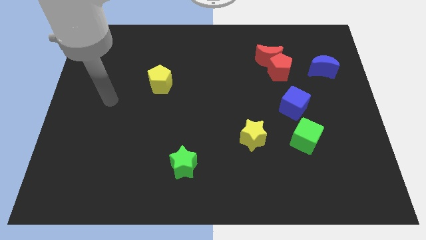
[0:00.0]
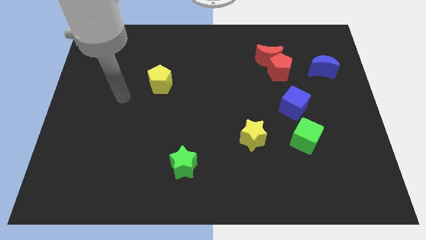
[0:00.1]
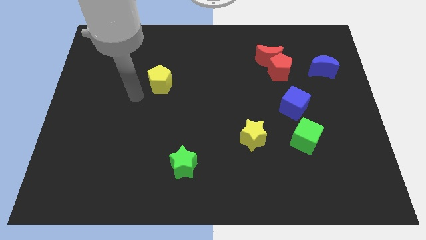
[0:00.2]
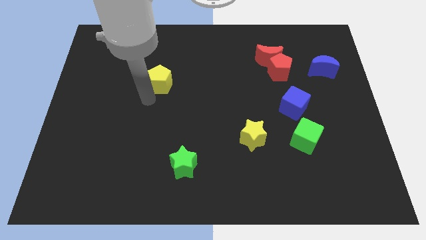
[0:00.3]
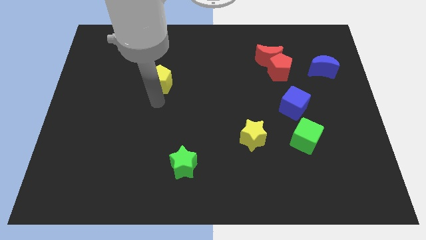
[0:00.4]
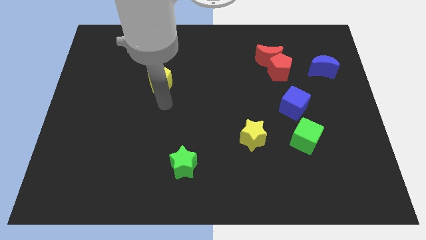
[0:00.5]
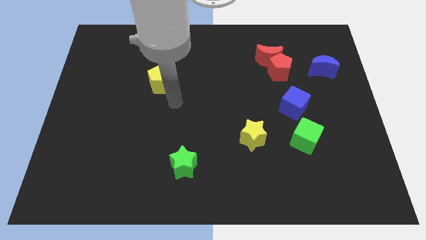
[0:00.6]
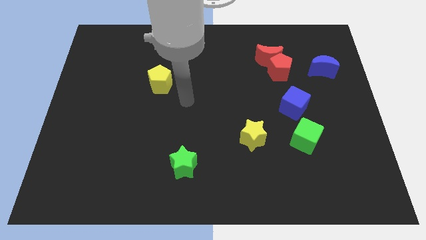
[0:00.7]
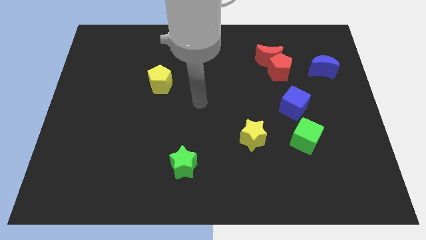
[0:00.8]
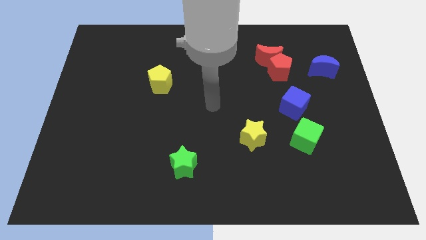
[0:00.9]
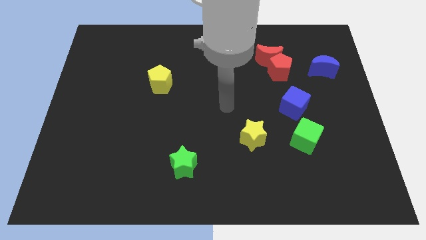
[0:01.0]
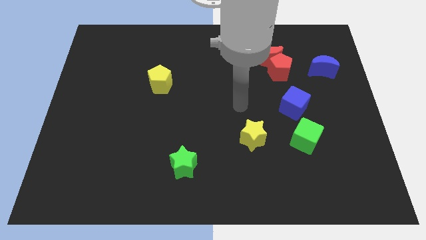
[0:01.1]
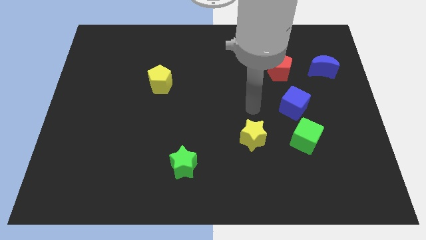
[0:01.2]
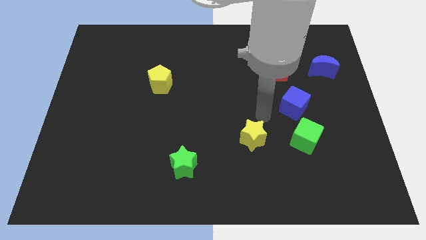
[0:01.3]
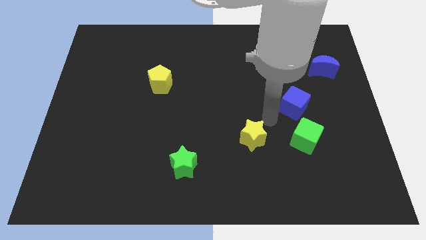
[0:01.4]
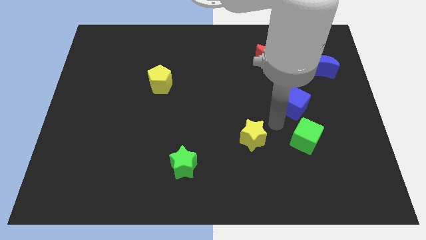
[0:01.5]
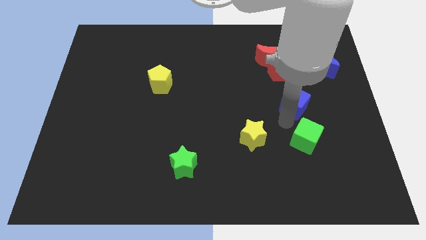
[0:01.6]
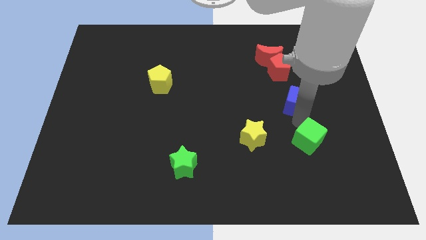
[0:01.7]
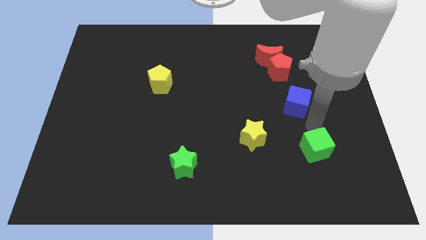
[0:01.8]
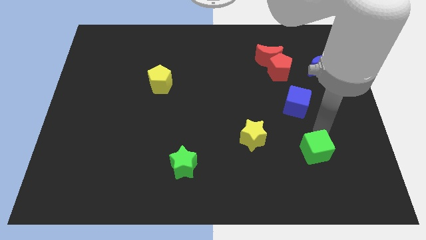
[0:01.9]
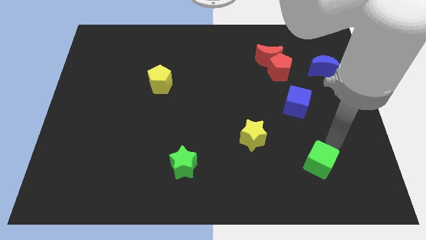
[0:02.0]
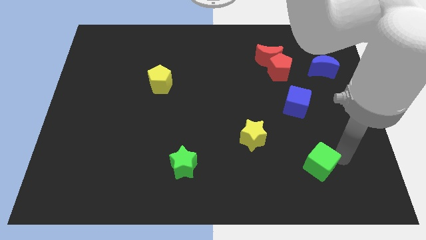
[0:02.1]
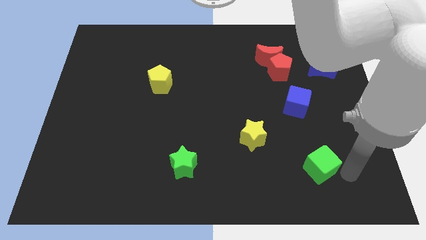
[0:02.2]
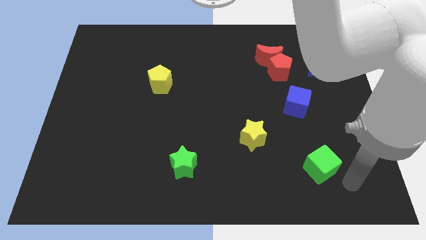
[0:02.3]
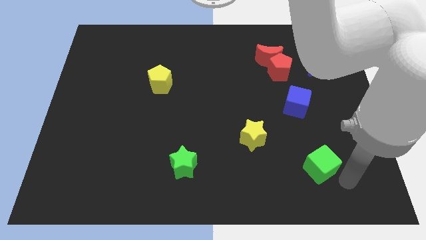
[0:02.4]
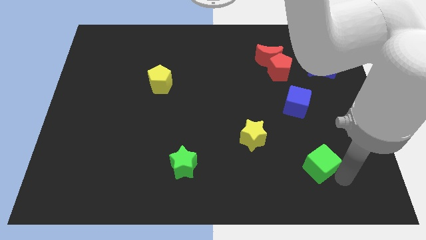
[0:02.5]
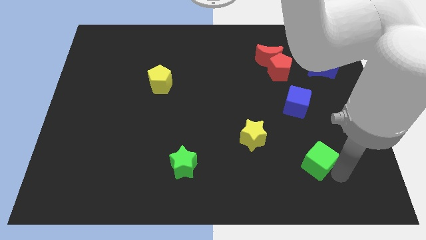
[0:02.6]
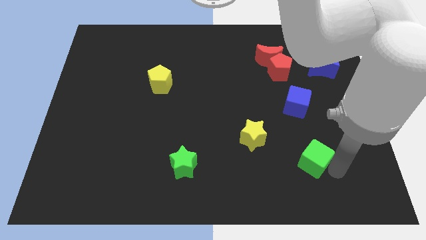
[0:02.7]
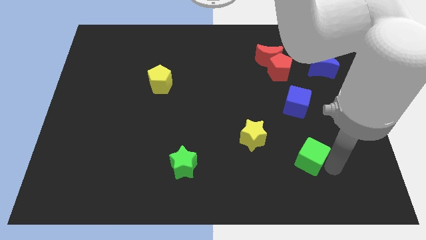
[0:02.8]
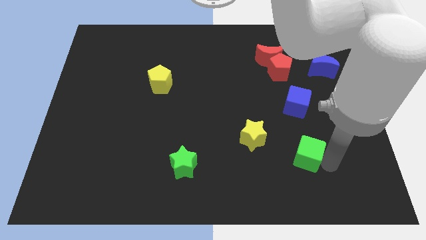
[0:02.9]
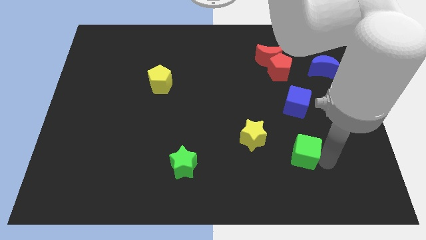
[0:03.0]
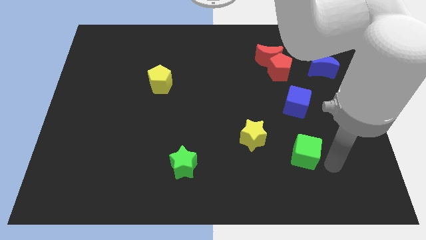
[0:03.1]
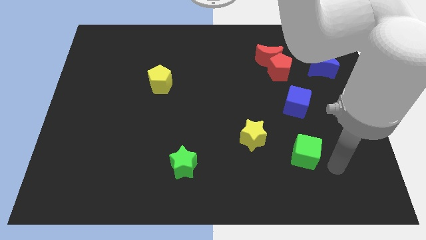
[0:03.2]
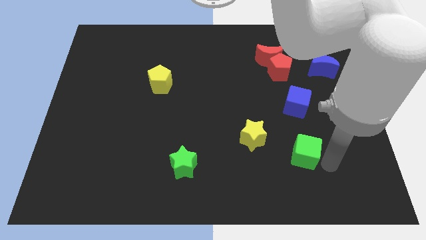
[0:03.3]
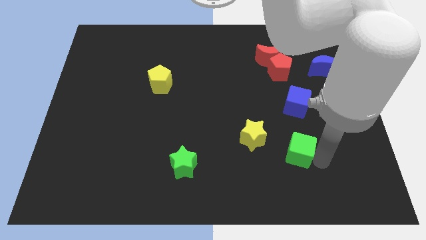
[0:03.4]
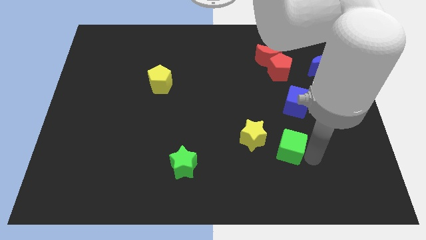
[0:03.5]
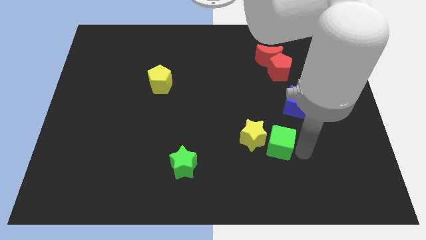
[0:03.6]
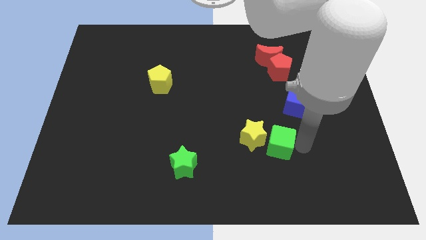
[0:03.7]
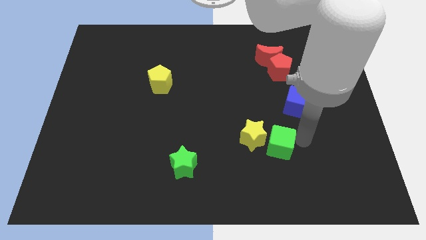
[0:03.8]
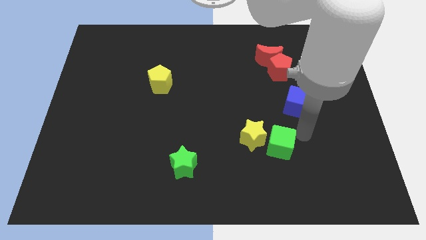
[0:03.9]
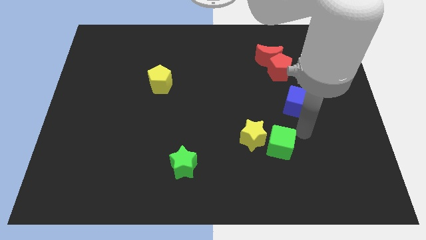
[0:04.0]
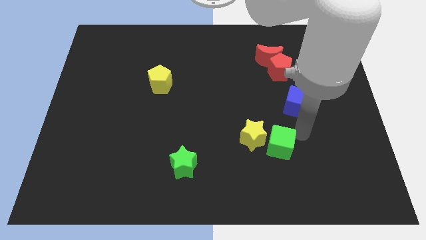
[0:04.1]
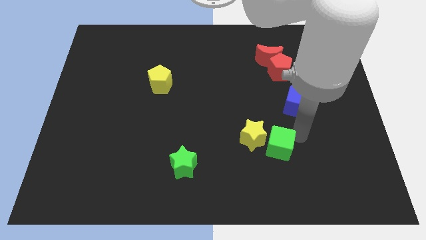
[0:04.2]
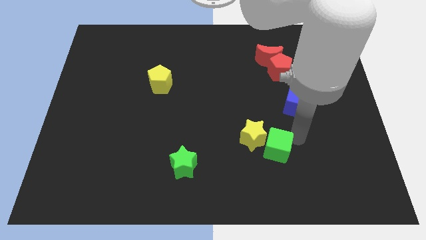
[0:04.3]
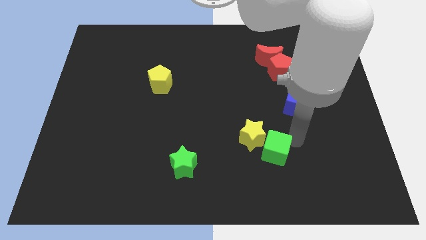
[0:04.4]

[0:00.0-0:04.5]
push the green cube left slightly

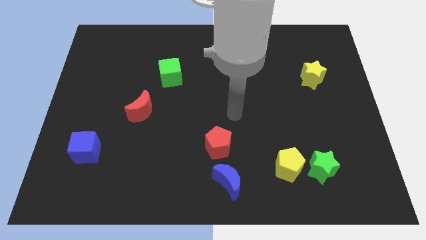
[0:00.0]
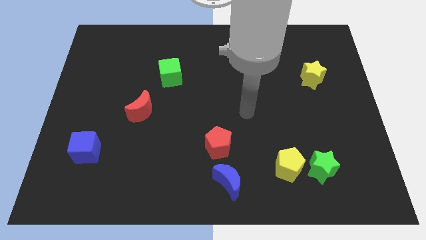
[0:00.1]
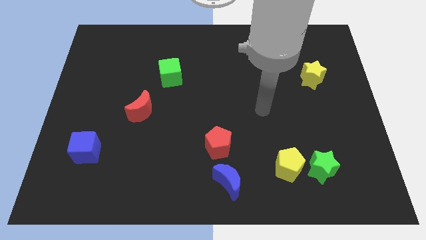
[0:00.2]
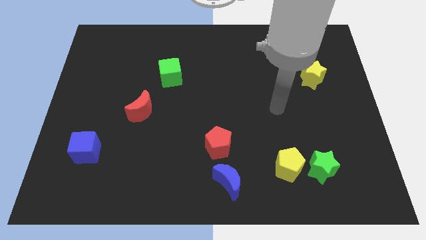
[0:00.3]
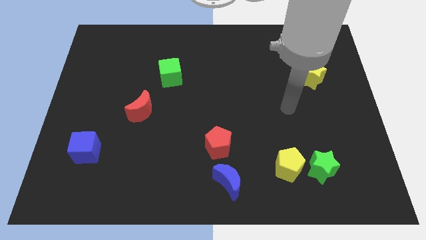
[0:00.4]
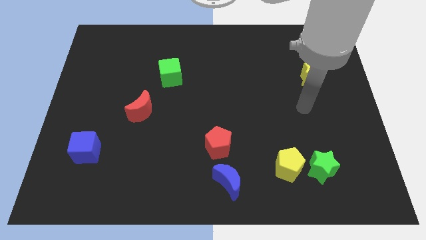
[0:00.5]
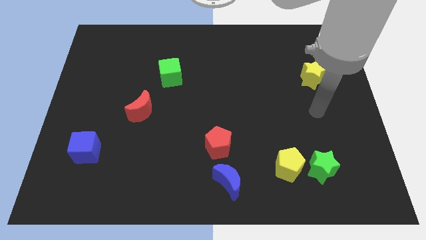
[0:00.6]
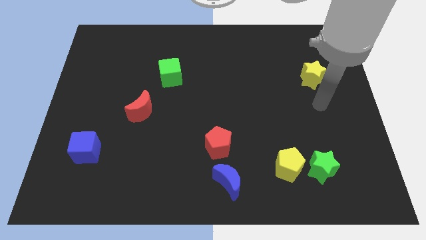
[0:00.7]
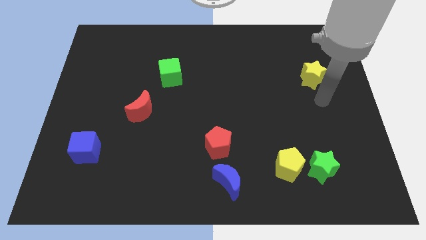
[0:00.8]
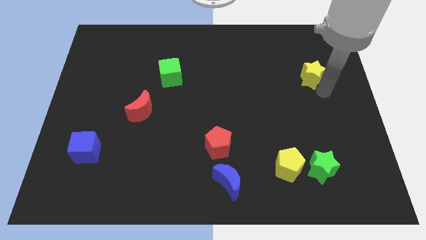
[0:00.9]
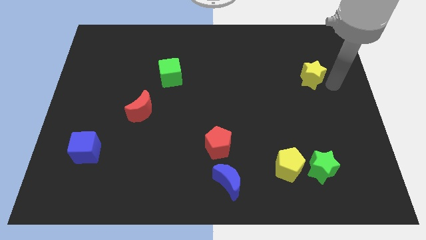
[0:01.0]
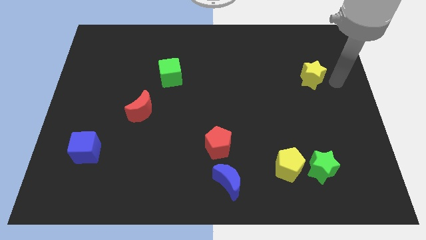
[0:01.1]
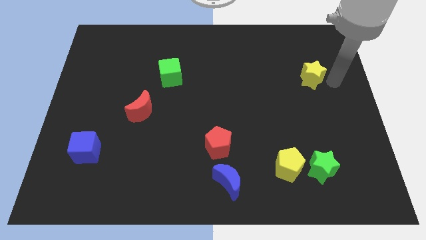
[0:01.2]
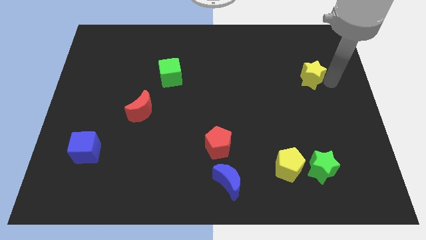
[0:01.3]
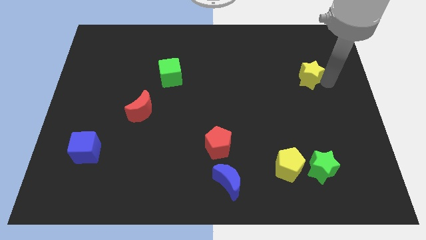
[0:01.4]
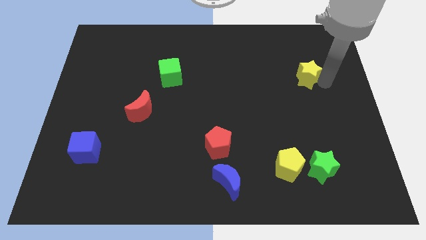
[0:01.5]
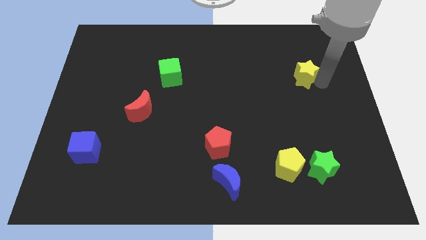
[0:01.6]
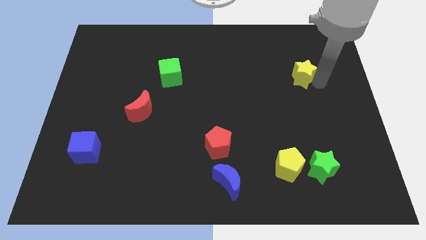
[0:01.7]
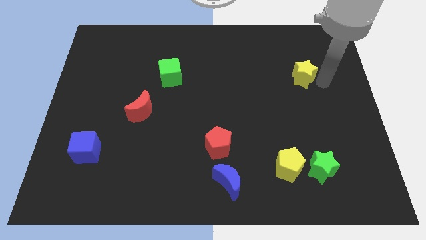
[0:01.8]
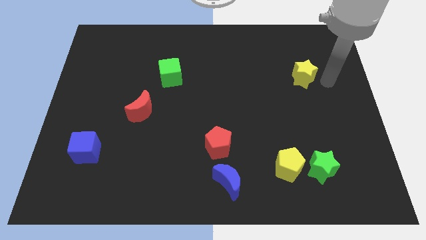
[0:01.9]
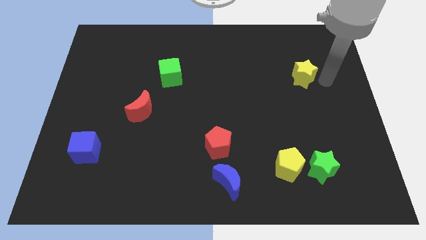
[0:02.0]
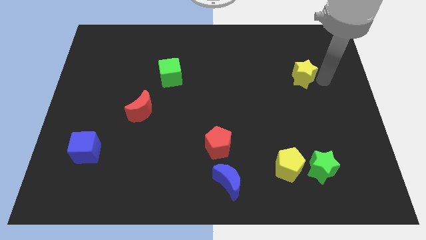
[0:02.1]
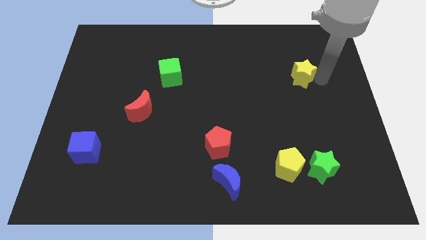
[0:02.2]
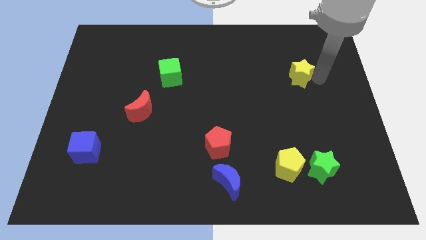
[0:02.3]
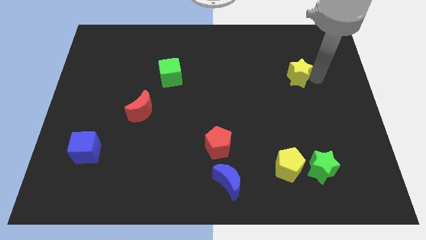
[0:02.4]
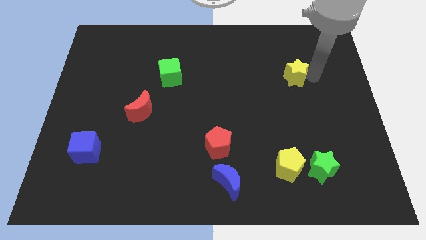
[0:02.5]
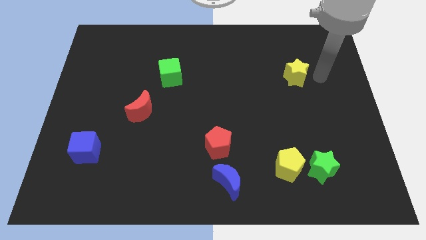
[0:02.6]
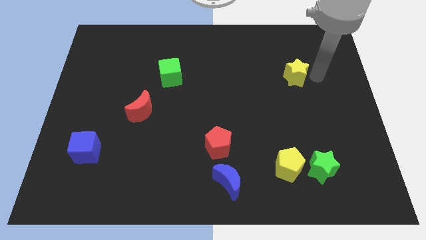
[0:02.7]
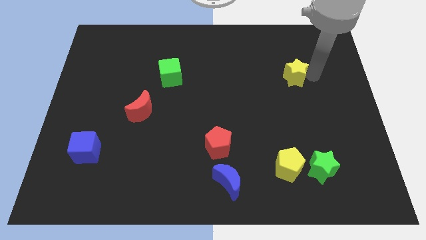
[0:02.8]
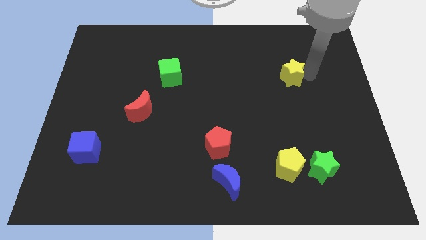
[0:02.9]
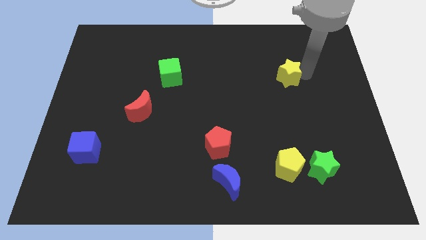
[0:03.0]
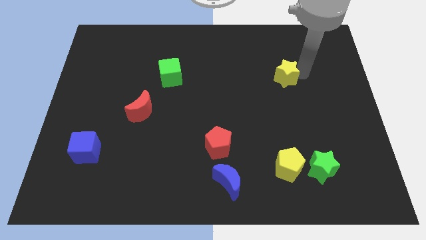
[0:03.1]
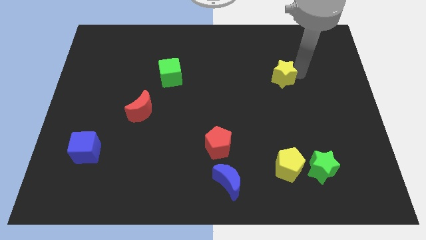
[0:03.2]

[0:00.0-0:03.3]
slide the yellow star a little bit left

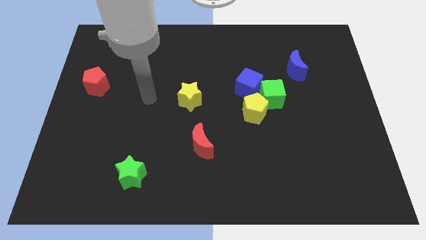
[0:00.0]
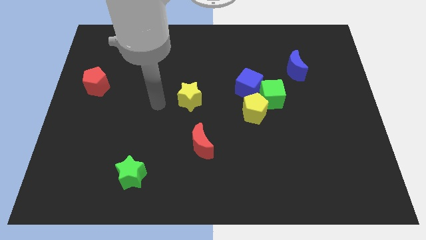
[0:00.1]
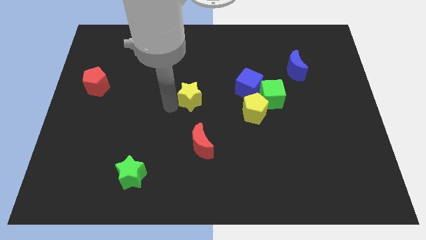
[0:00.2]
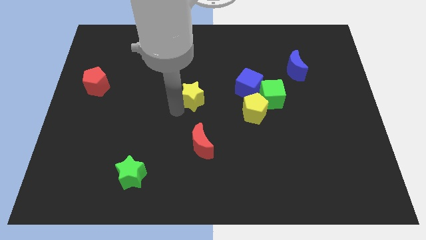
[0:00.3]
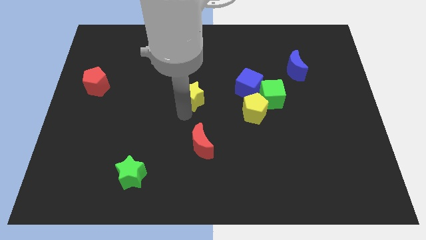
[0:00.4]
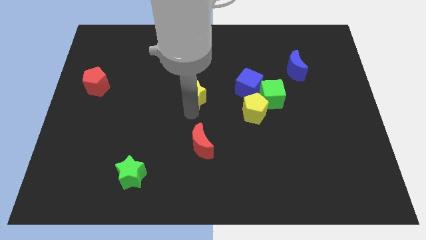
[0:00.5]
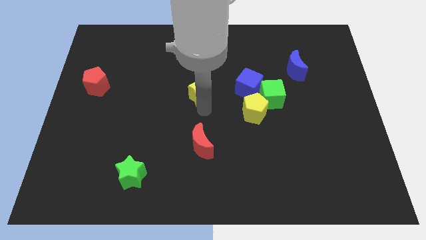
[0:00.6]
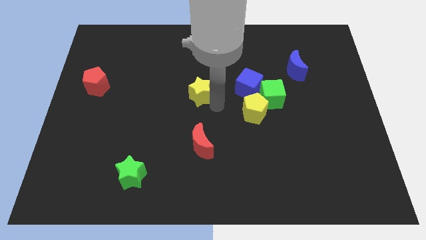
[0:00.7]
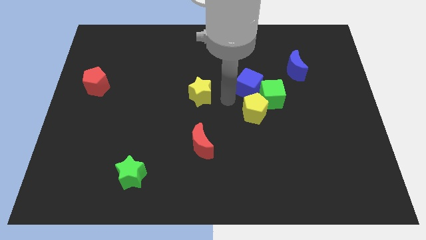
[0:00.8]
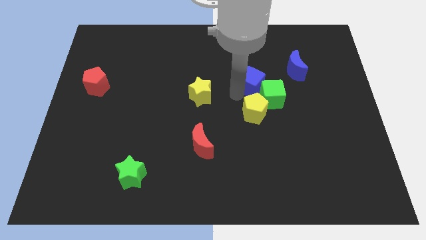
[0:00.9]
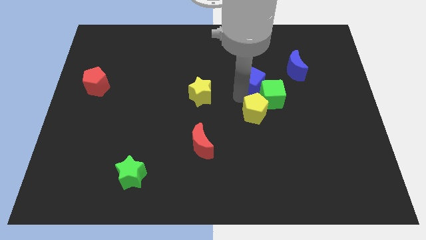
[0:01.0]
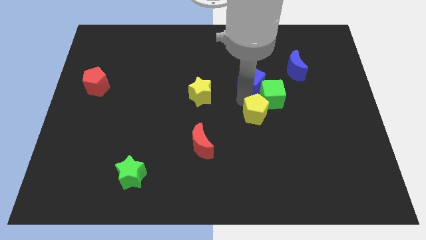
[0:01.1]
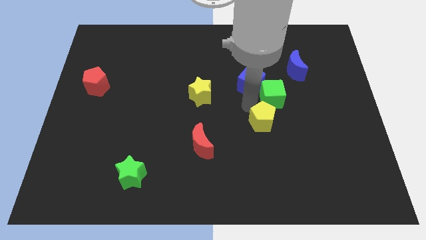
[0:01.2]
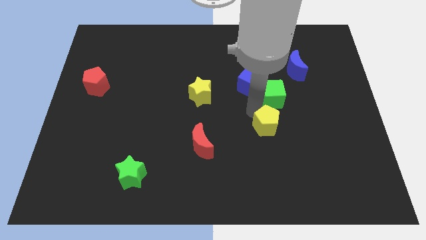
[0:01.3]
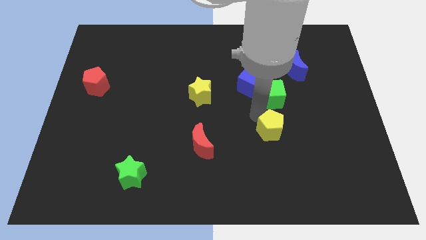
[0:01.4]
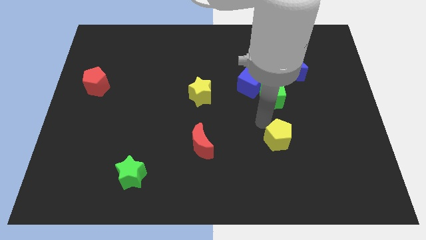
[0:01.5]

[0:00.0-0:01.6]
slightly push the yellow pentagon down and then right
